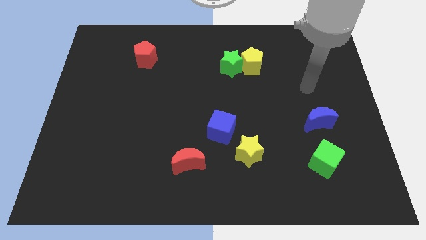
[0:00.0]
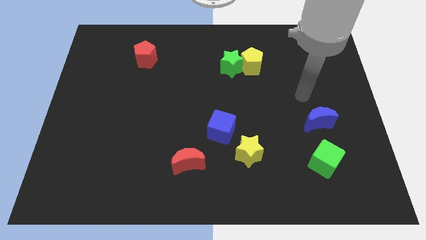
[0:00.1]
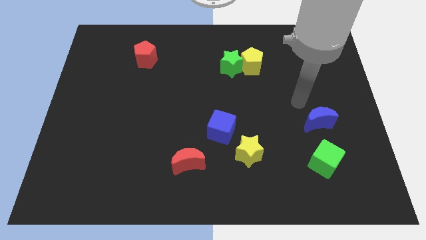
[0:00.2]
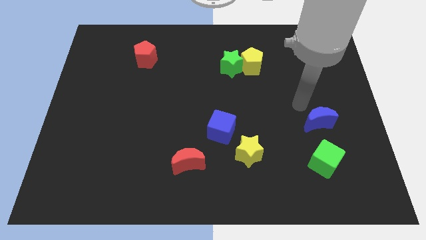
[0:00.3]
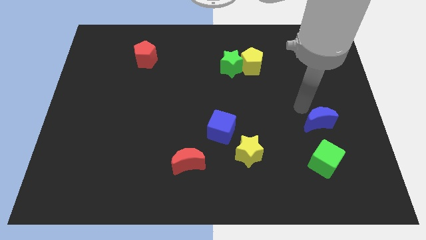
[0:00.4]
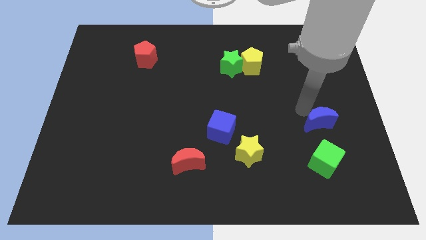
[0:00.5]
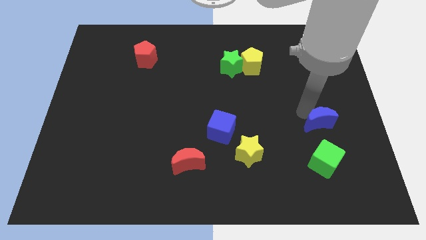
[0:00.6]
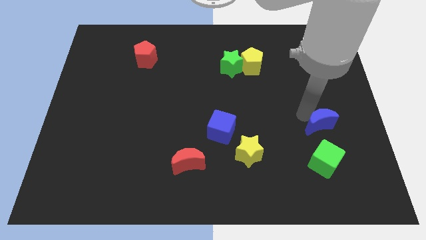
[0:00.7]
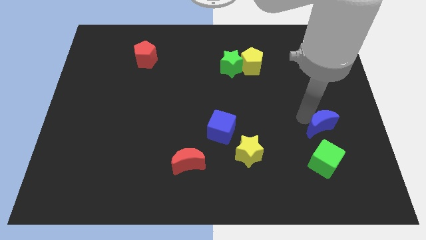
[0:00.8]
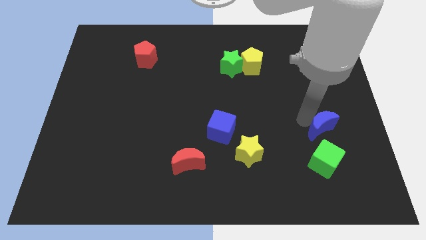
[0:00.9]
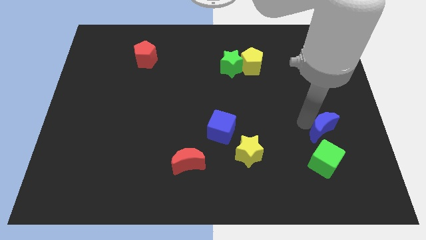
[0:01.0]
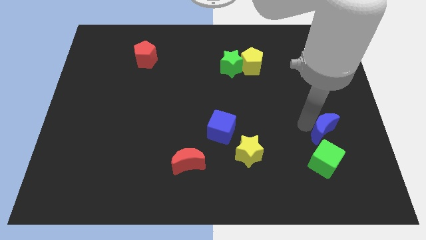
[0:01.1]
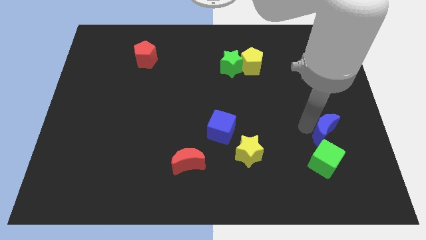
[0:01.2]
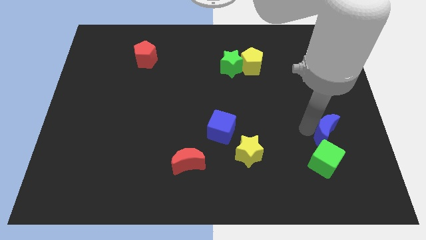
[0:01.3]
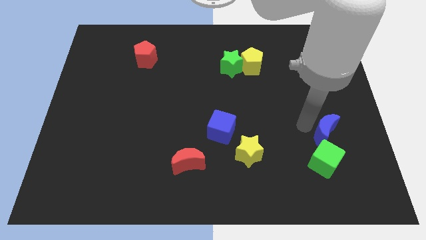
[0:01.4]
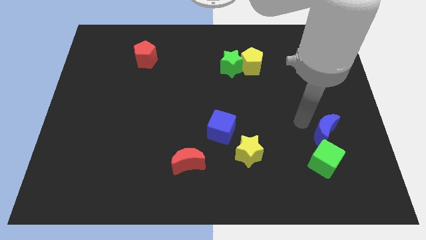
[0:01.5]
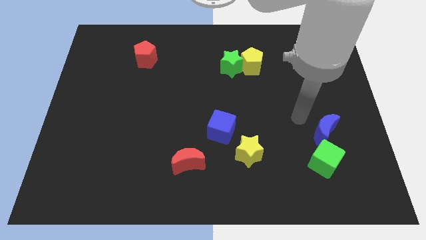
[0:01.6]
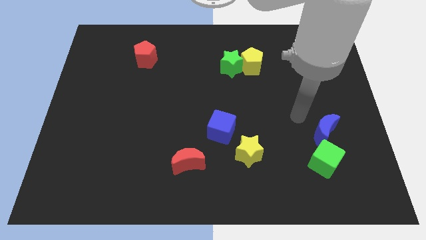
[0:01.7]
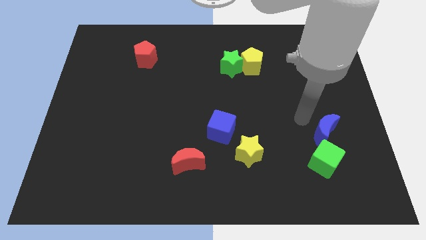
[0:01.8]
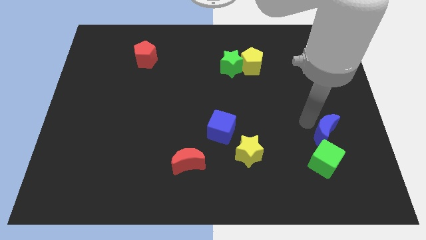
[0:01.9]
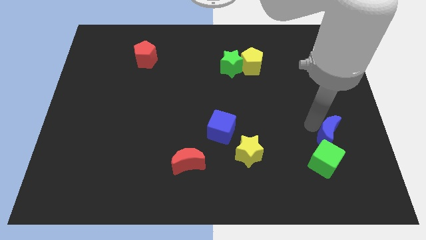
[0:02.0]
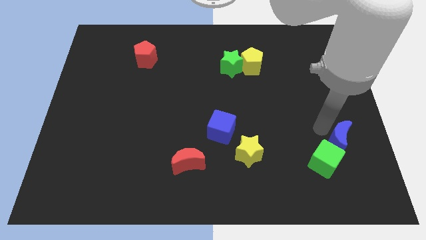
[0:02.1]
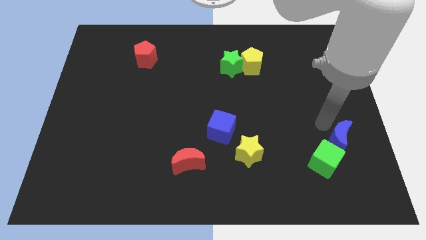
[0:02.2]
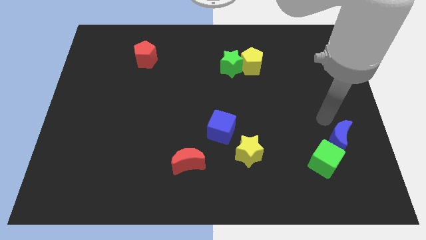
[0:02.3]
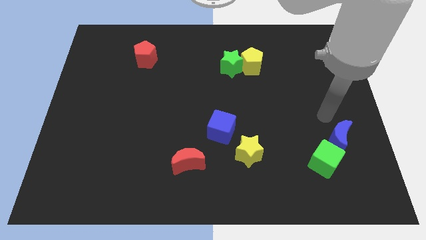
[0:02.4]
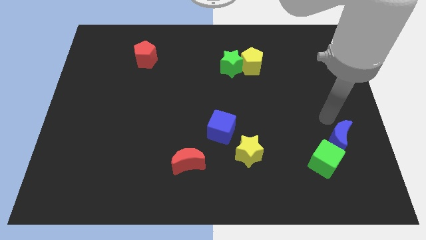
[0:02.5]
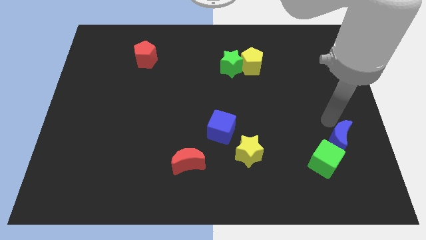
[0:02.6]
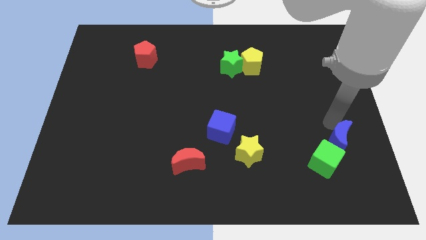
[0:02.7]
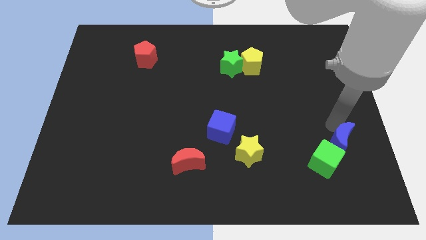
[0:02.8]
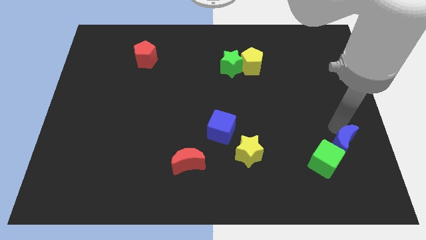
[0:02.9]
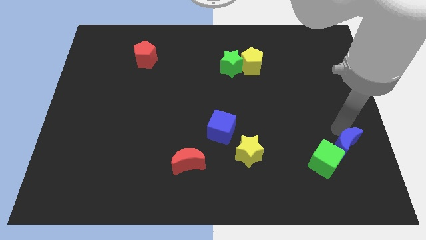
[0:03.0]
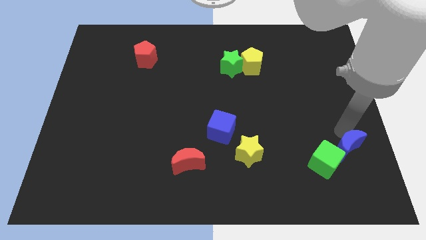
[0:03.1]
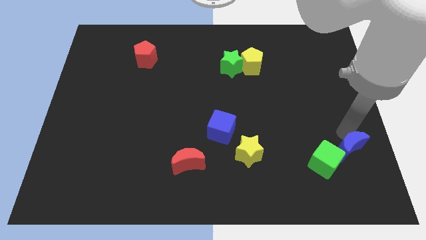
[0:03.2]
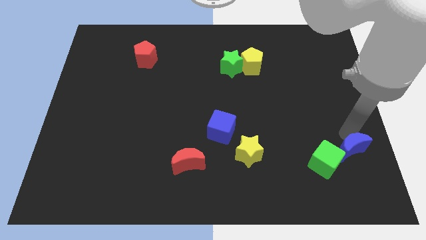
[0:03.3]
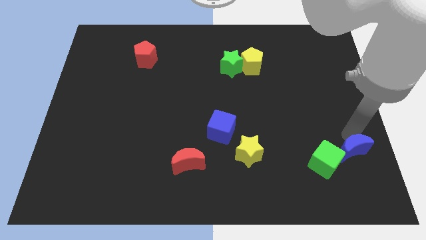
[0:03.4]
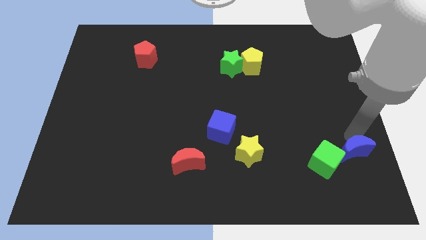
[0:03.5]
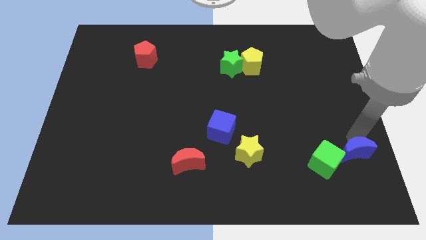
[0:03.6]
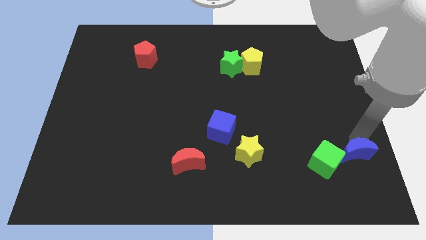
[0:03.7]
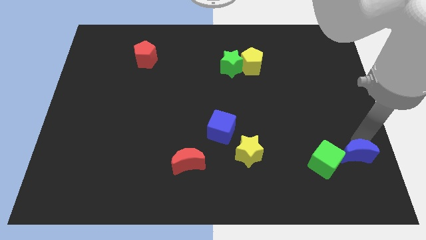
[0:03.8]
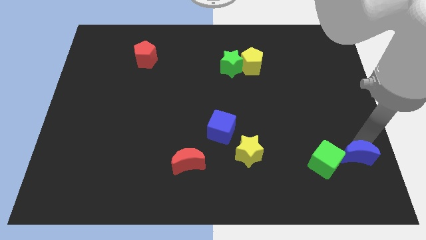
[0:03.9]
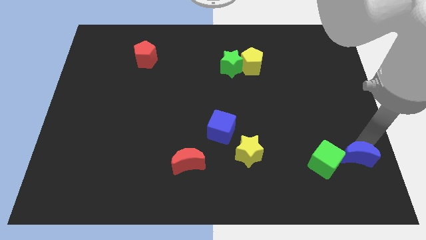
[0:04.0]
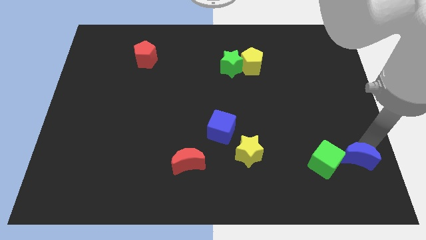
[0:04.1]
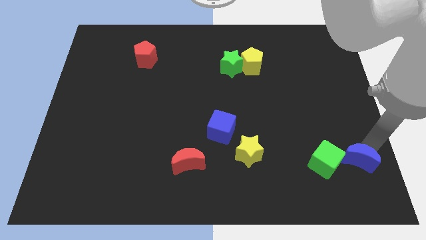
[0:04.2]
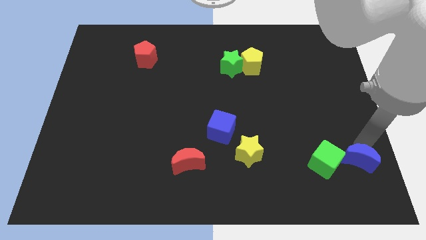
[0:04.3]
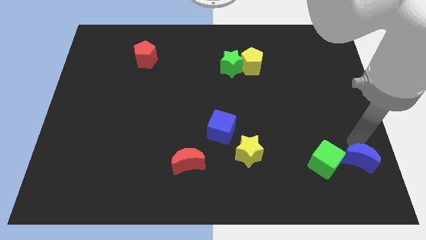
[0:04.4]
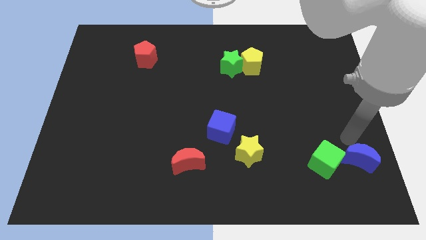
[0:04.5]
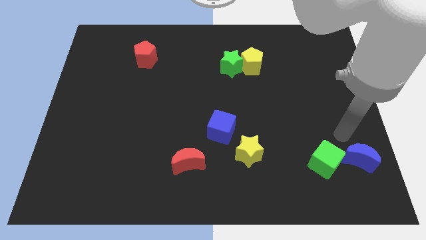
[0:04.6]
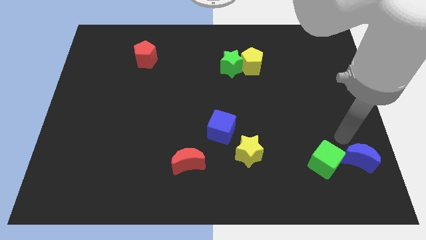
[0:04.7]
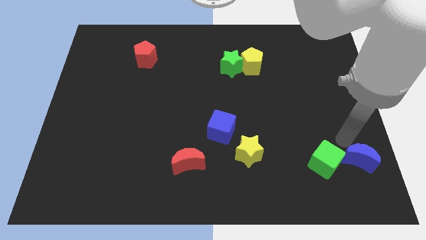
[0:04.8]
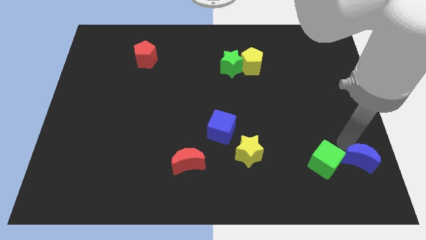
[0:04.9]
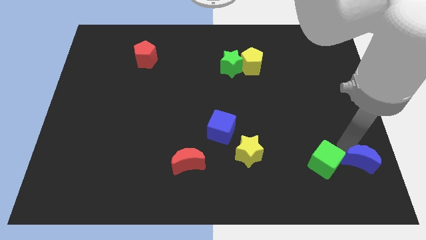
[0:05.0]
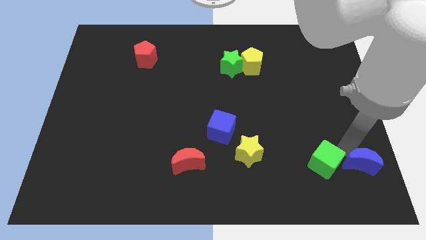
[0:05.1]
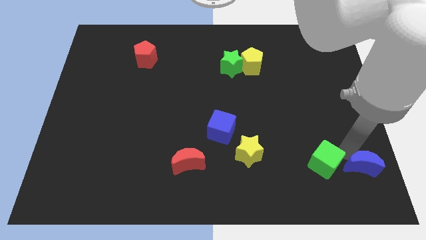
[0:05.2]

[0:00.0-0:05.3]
move the blue moon to the lower right corner

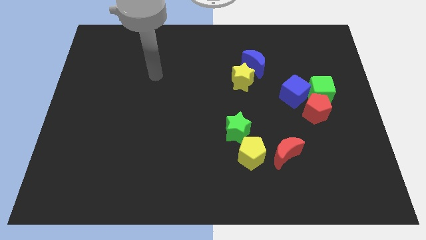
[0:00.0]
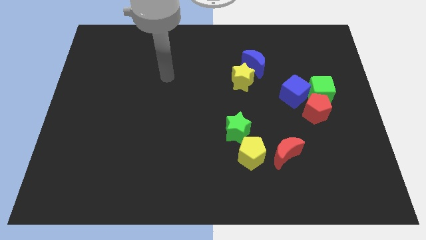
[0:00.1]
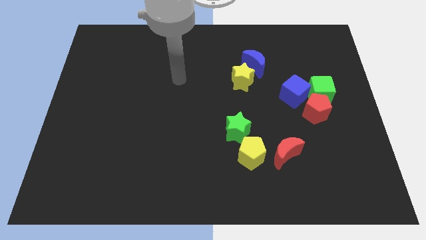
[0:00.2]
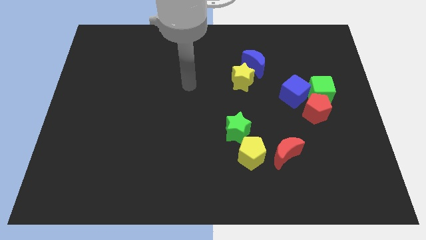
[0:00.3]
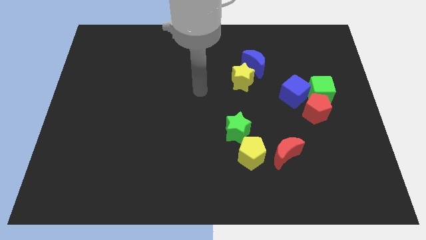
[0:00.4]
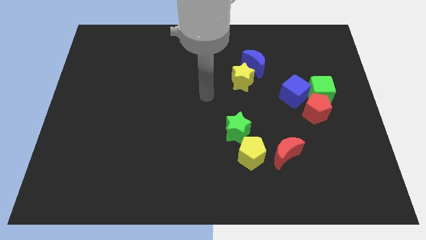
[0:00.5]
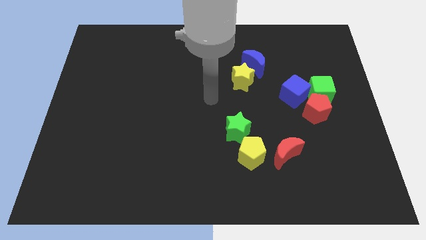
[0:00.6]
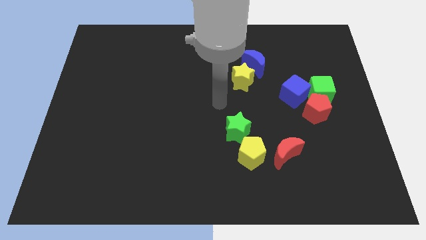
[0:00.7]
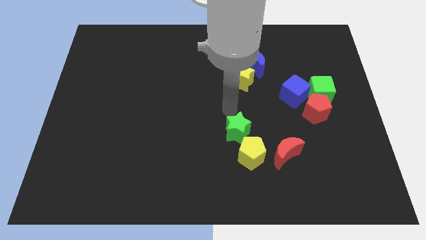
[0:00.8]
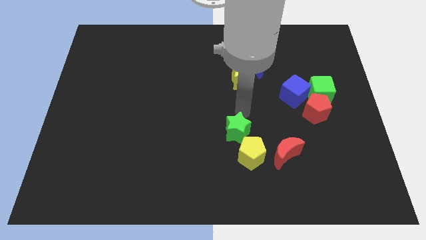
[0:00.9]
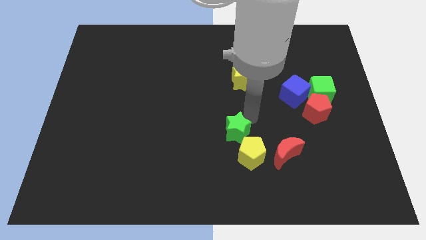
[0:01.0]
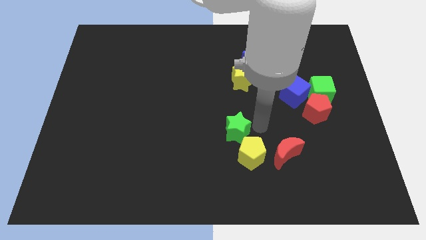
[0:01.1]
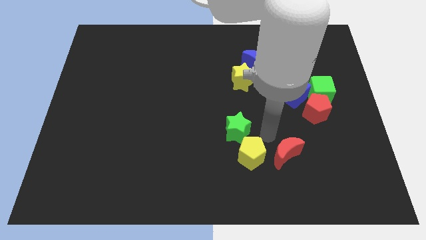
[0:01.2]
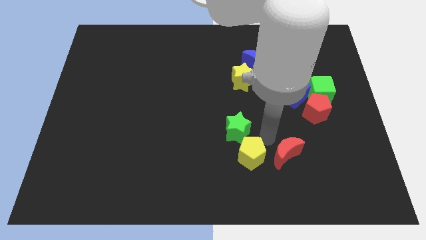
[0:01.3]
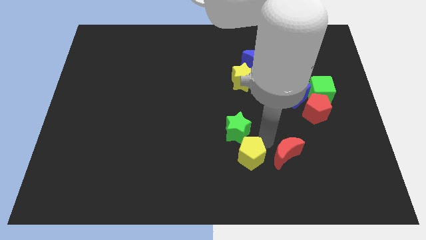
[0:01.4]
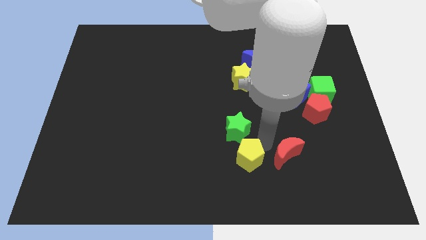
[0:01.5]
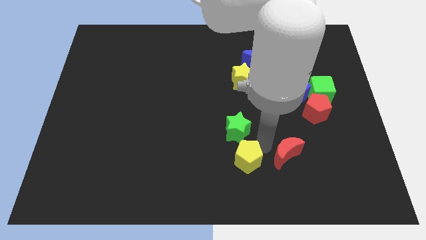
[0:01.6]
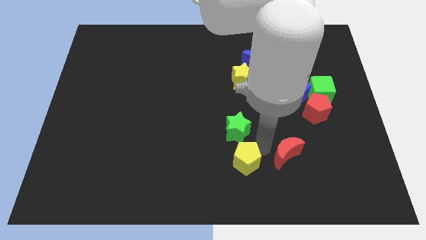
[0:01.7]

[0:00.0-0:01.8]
slide the yellow pentagon to the bottom side

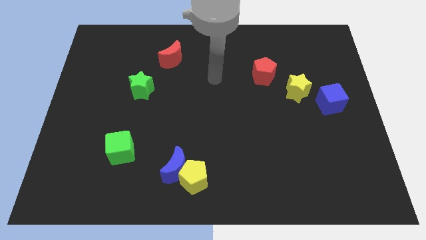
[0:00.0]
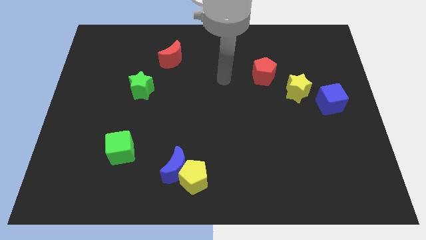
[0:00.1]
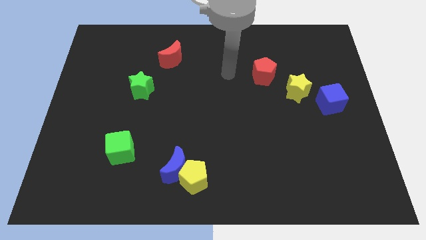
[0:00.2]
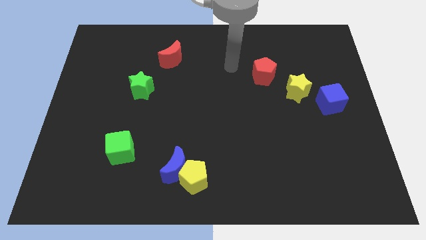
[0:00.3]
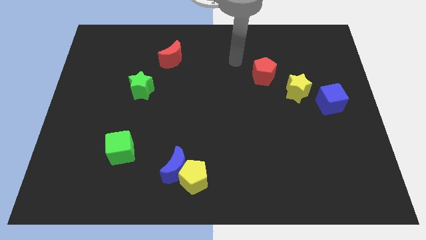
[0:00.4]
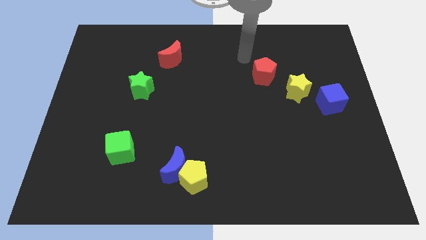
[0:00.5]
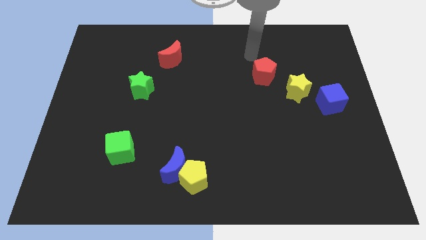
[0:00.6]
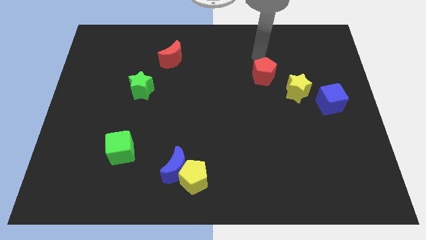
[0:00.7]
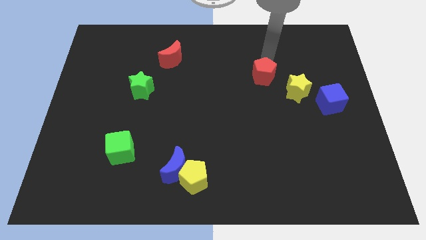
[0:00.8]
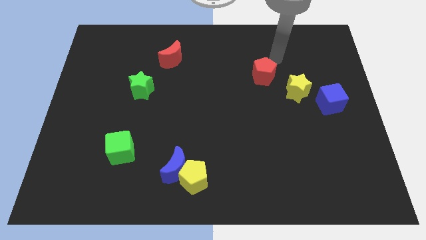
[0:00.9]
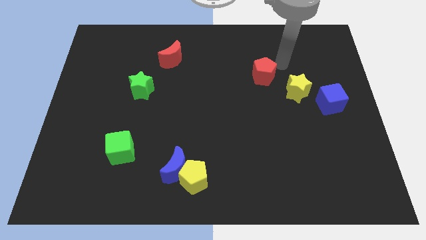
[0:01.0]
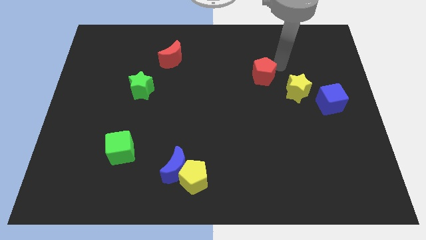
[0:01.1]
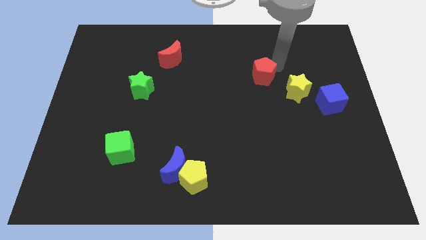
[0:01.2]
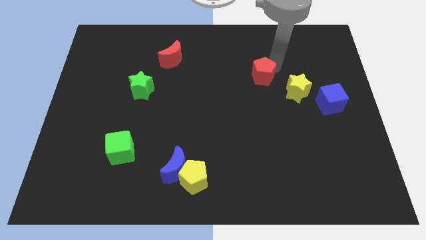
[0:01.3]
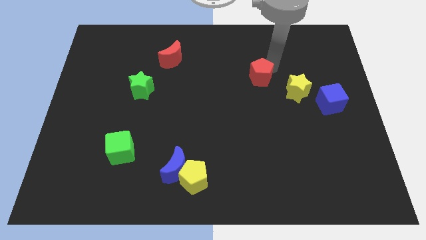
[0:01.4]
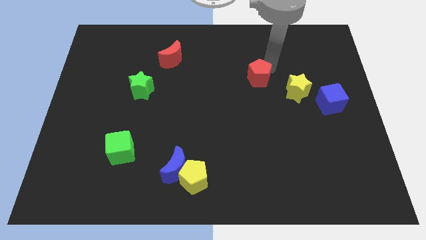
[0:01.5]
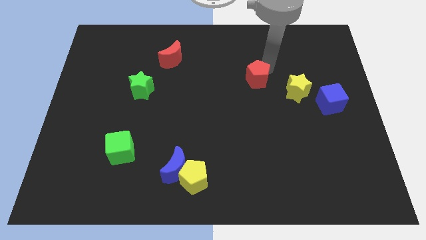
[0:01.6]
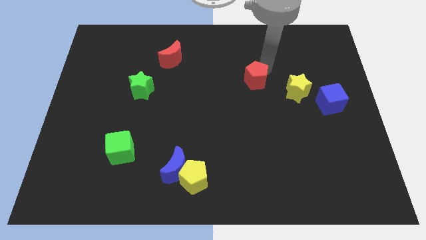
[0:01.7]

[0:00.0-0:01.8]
move the red pentagon to the center
